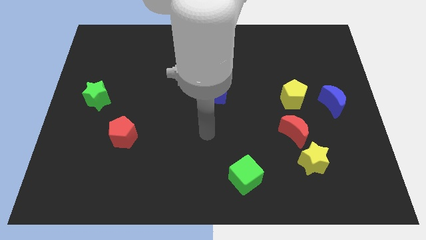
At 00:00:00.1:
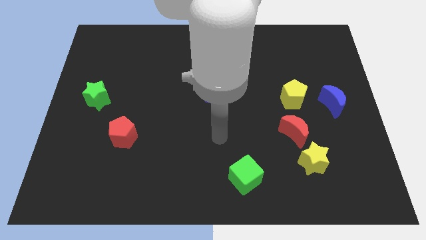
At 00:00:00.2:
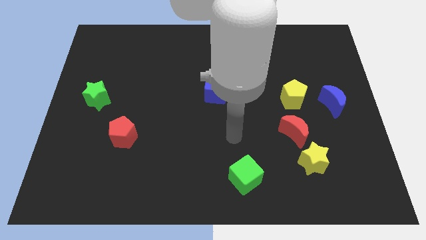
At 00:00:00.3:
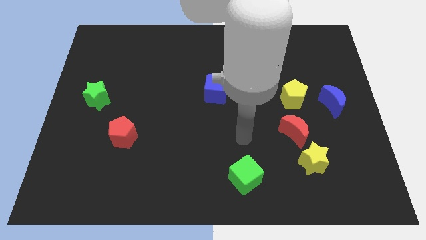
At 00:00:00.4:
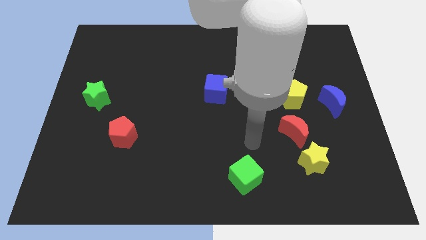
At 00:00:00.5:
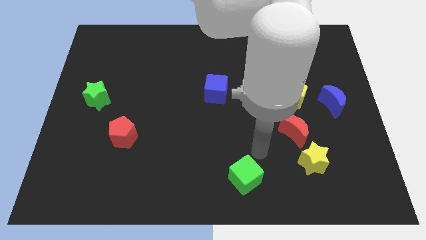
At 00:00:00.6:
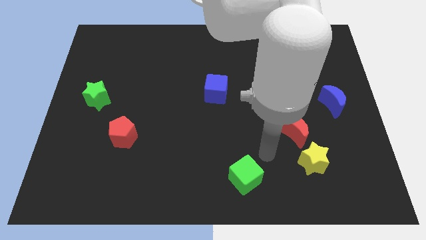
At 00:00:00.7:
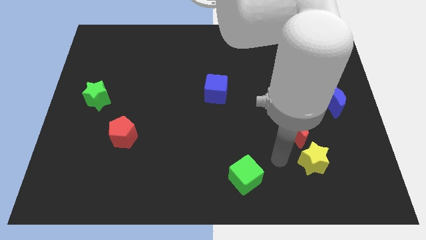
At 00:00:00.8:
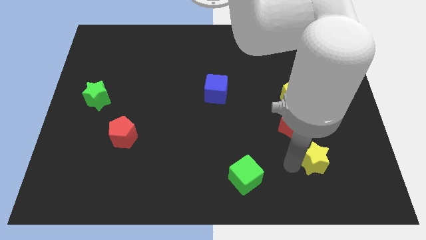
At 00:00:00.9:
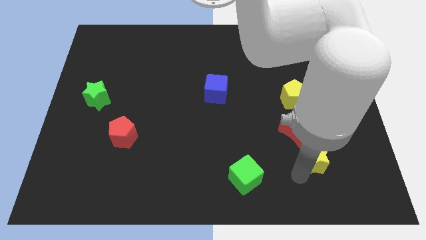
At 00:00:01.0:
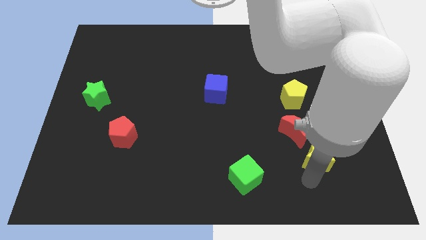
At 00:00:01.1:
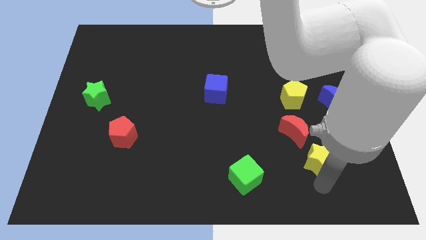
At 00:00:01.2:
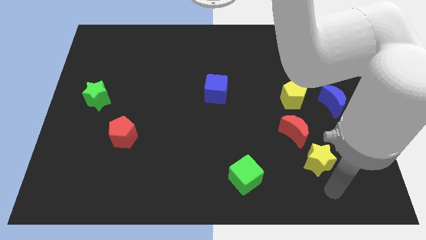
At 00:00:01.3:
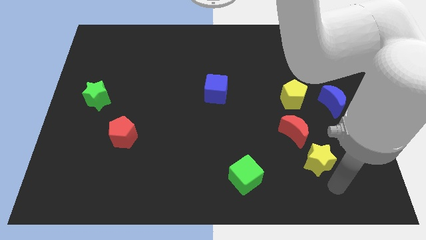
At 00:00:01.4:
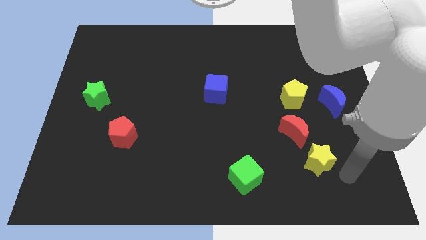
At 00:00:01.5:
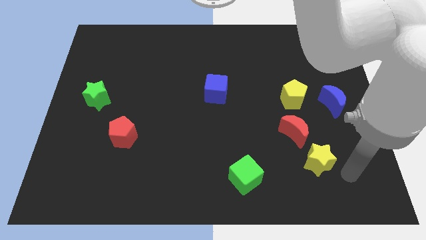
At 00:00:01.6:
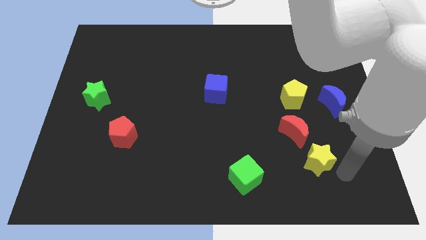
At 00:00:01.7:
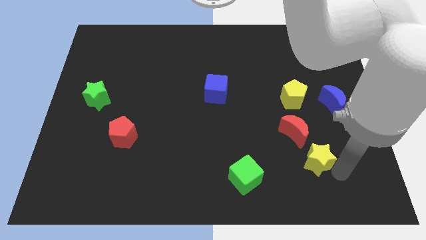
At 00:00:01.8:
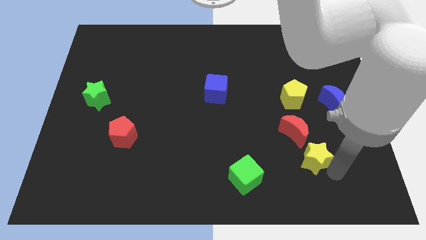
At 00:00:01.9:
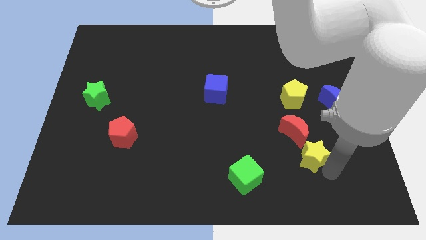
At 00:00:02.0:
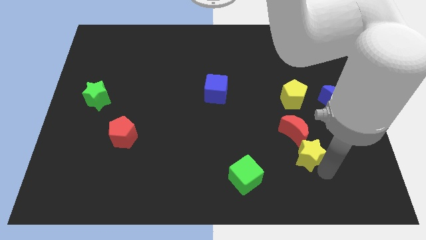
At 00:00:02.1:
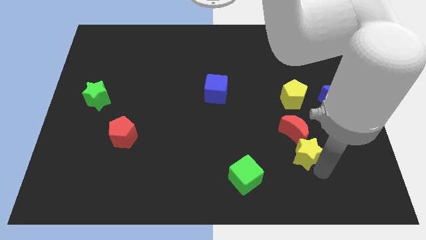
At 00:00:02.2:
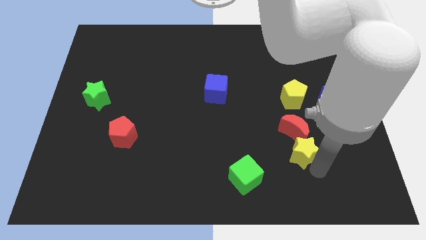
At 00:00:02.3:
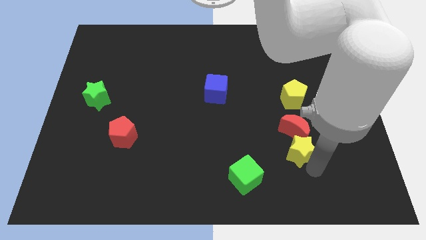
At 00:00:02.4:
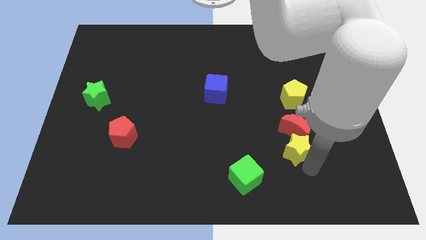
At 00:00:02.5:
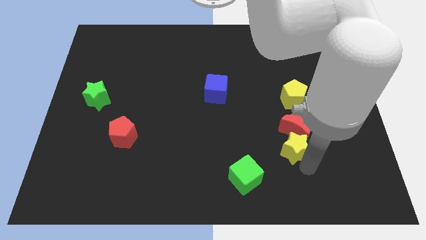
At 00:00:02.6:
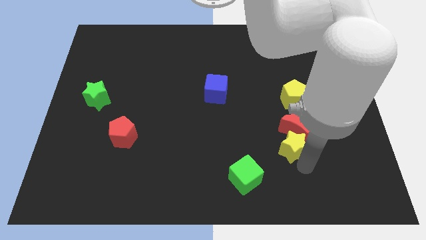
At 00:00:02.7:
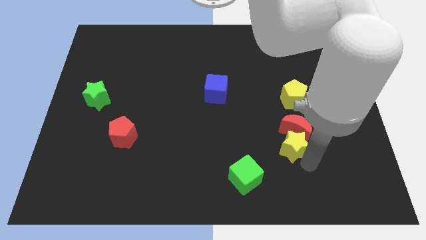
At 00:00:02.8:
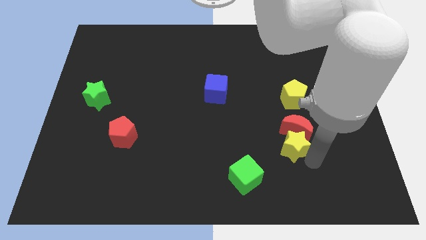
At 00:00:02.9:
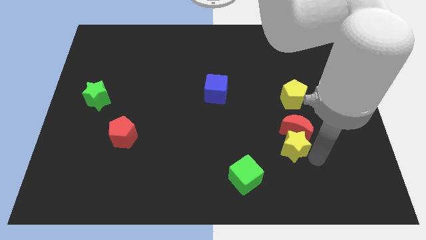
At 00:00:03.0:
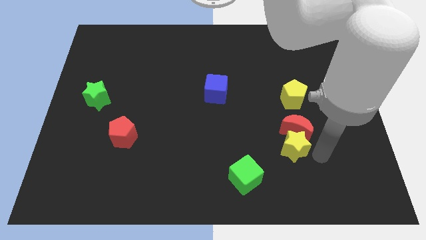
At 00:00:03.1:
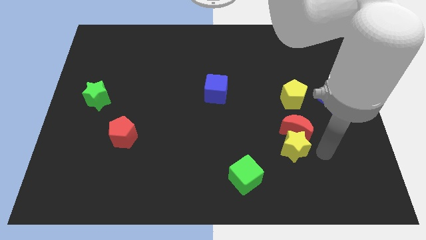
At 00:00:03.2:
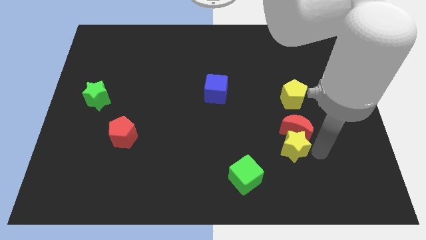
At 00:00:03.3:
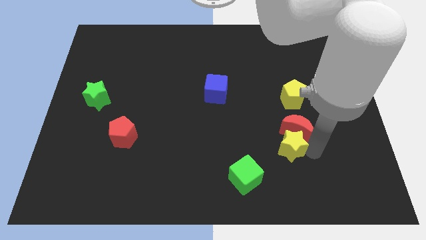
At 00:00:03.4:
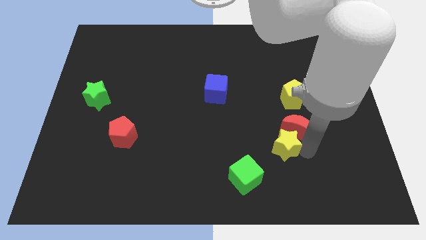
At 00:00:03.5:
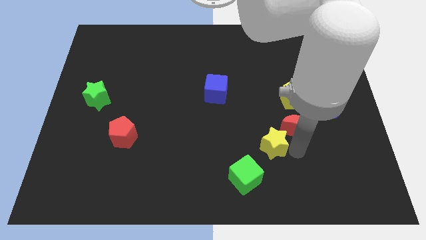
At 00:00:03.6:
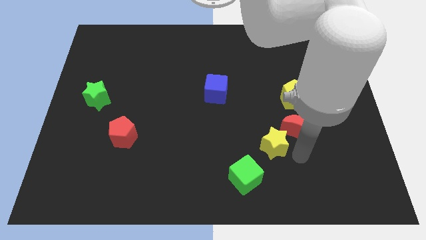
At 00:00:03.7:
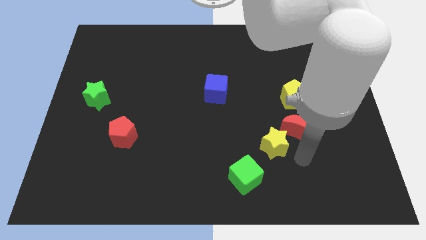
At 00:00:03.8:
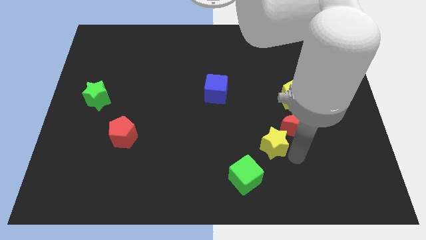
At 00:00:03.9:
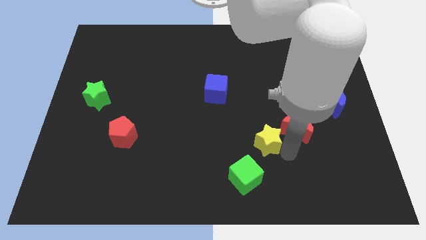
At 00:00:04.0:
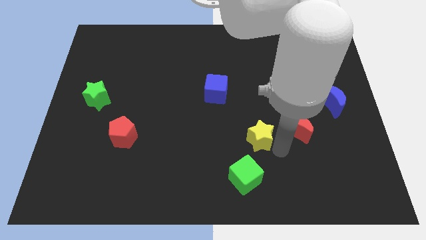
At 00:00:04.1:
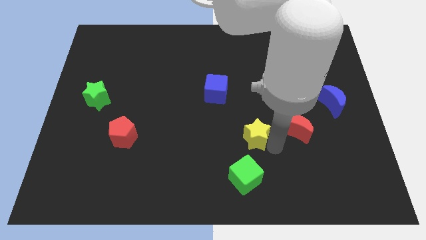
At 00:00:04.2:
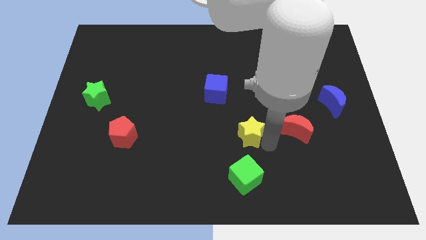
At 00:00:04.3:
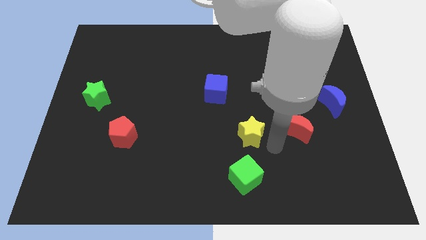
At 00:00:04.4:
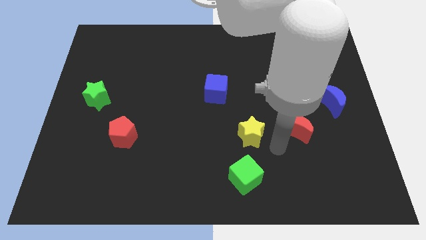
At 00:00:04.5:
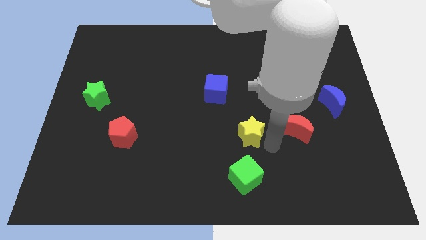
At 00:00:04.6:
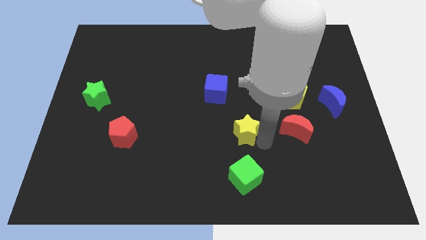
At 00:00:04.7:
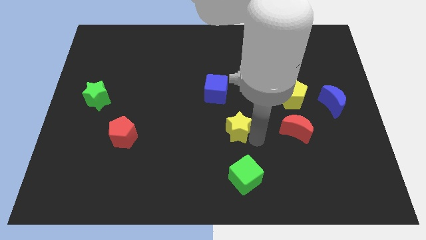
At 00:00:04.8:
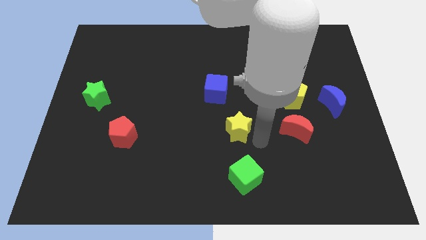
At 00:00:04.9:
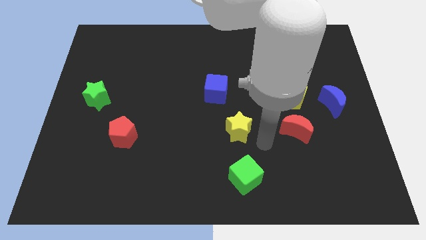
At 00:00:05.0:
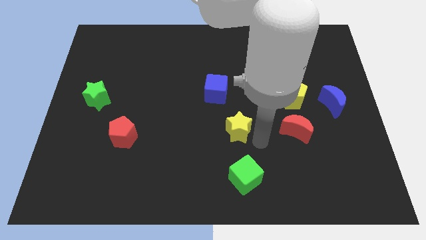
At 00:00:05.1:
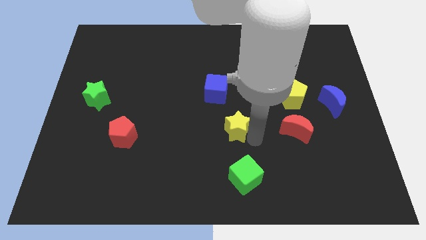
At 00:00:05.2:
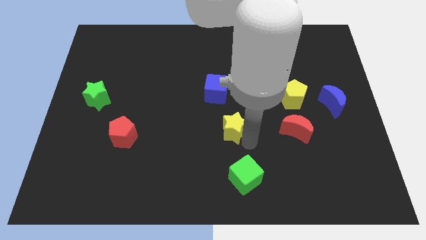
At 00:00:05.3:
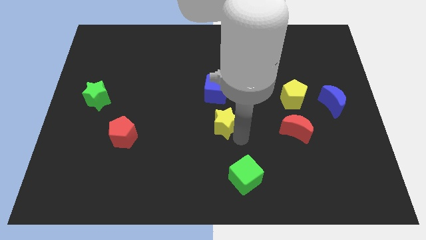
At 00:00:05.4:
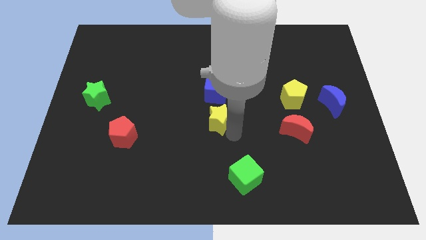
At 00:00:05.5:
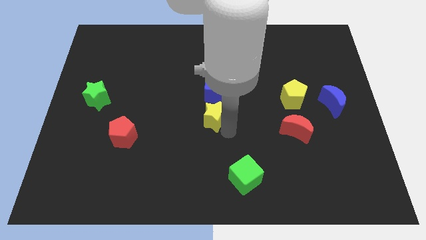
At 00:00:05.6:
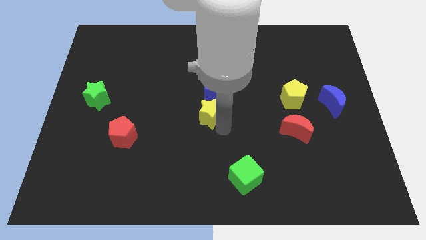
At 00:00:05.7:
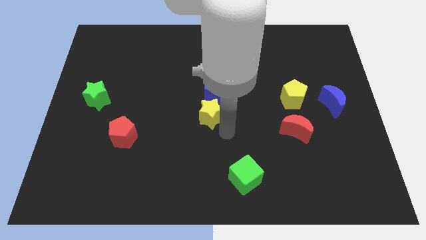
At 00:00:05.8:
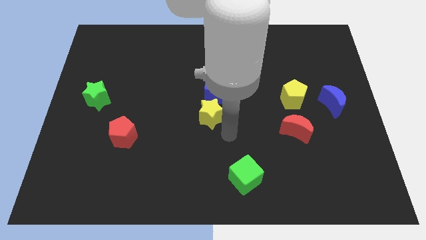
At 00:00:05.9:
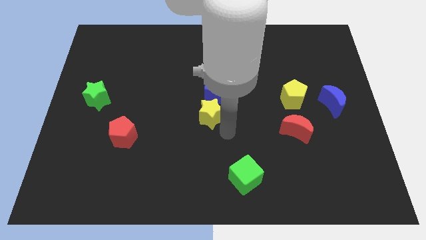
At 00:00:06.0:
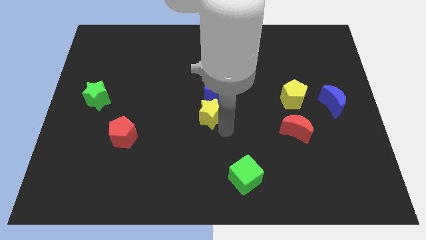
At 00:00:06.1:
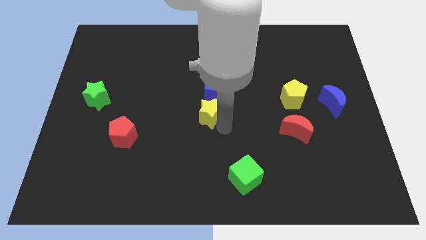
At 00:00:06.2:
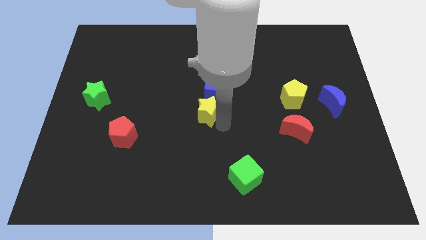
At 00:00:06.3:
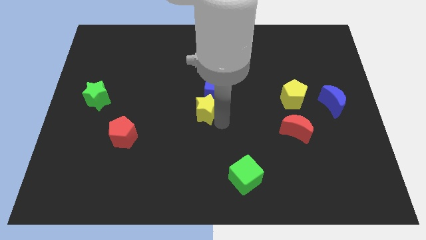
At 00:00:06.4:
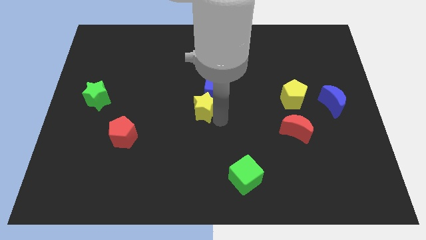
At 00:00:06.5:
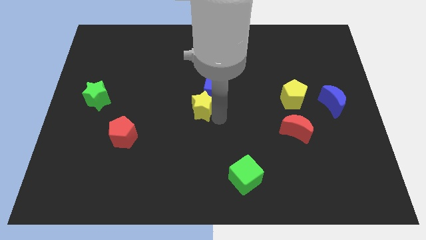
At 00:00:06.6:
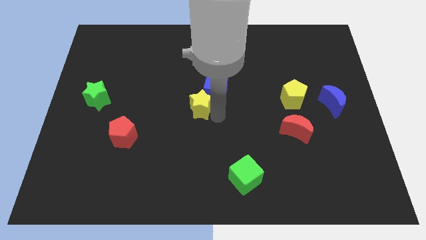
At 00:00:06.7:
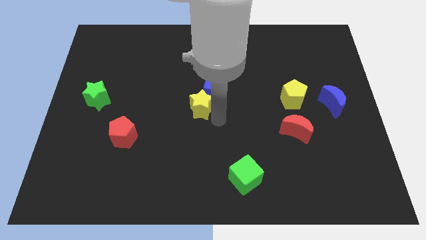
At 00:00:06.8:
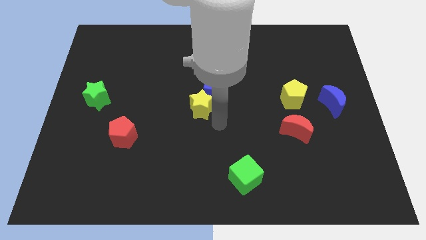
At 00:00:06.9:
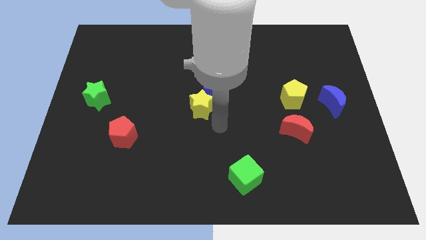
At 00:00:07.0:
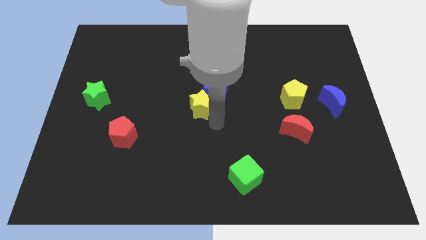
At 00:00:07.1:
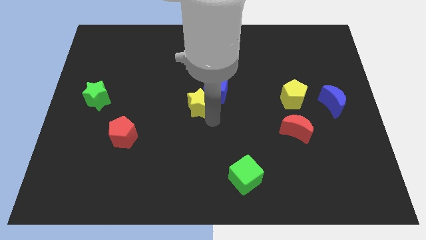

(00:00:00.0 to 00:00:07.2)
put the yellow star to the left of the blue cube
